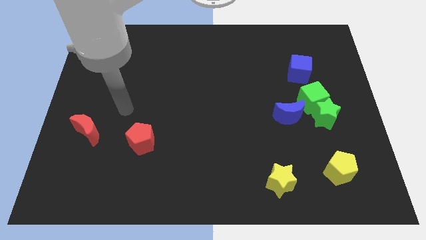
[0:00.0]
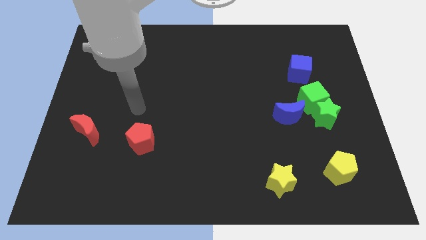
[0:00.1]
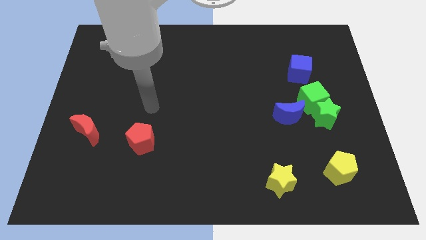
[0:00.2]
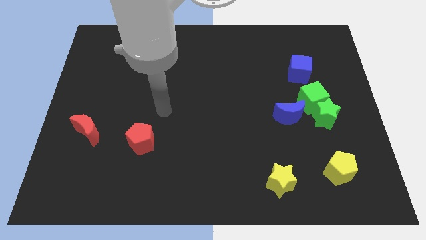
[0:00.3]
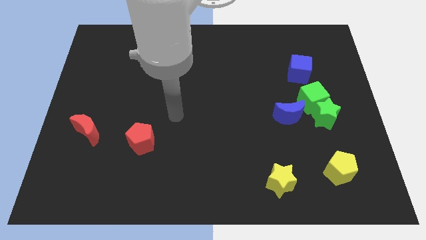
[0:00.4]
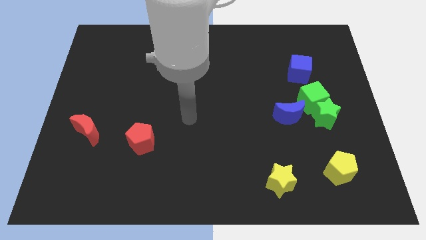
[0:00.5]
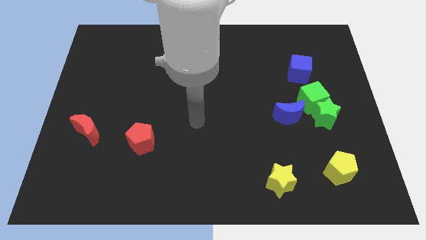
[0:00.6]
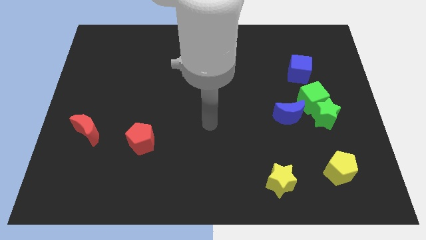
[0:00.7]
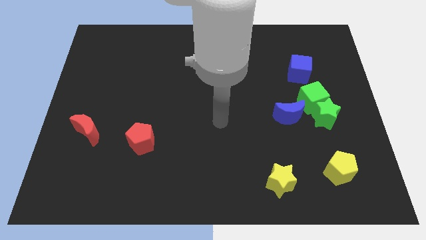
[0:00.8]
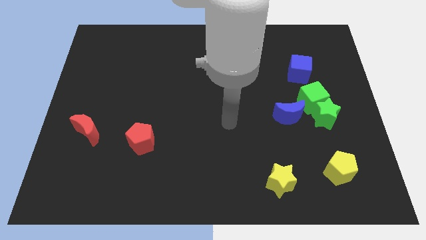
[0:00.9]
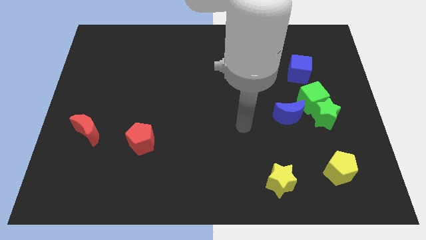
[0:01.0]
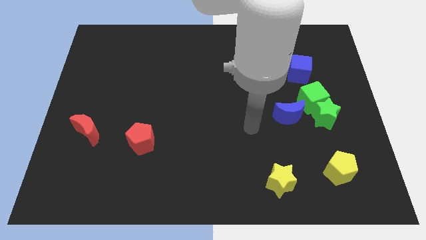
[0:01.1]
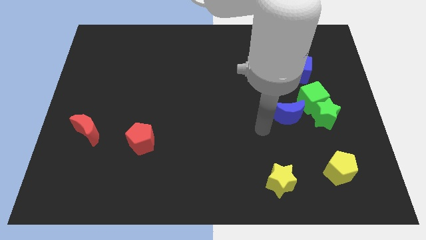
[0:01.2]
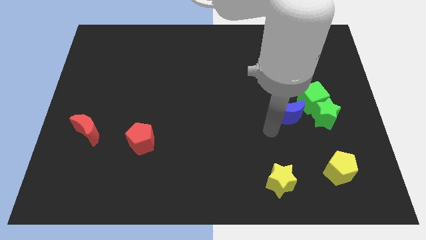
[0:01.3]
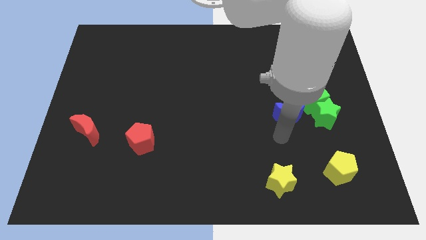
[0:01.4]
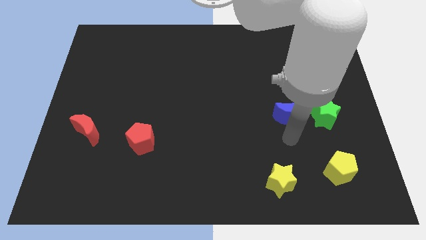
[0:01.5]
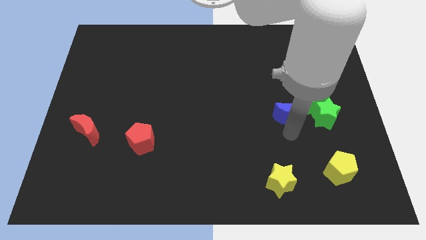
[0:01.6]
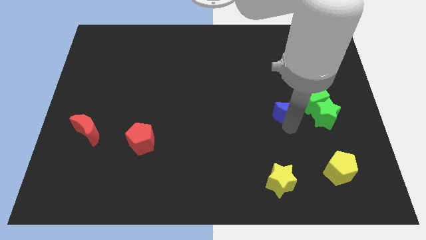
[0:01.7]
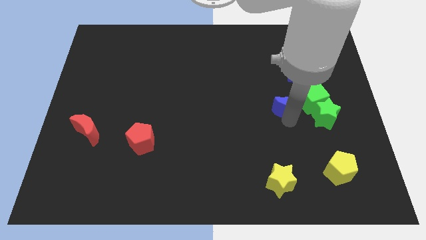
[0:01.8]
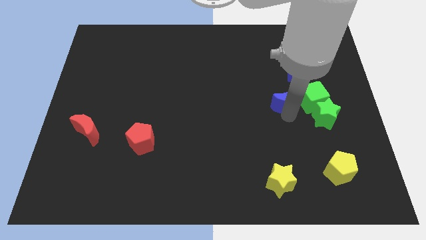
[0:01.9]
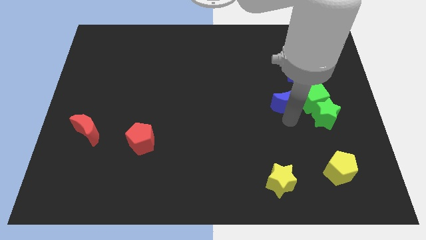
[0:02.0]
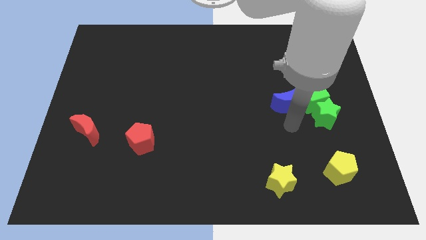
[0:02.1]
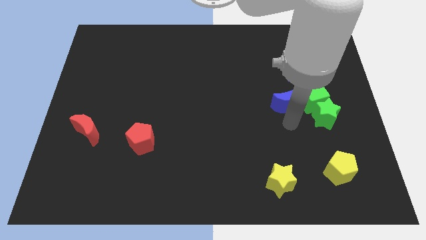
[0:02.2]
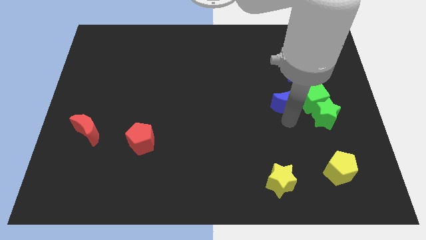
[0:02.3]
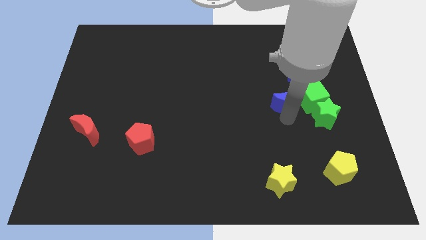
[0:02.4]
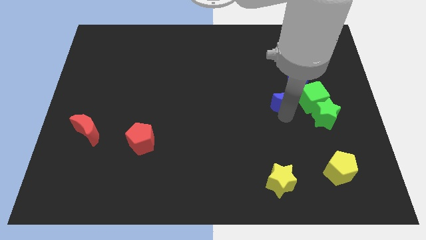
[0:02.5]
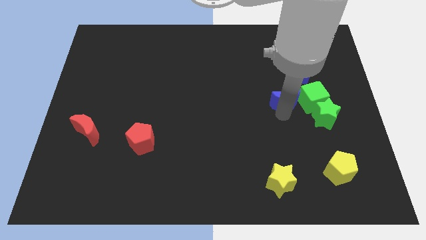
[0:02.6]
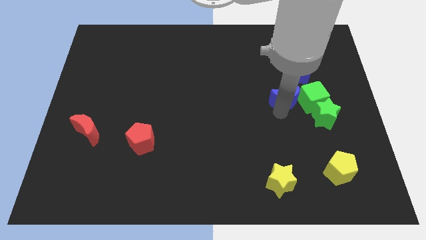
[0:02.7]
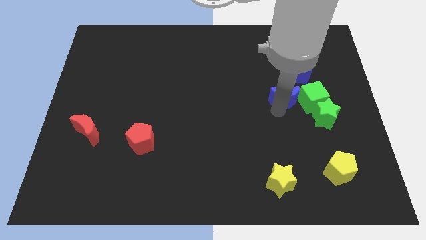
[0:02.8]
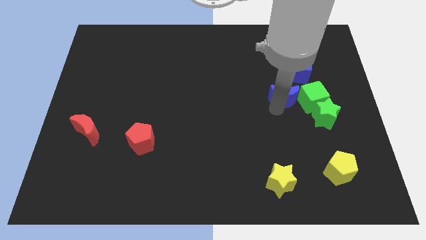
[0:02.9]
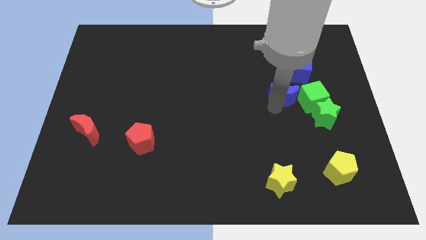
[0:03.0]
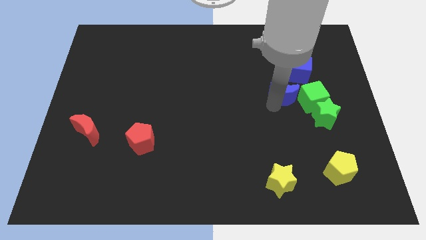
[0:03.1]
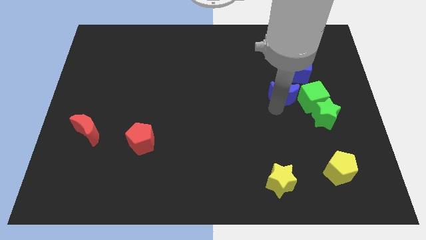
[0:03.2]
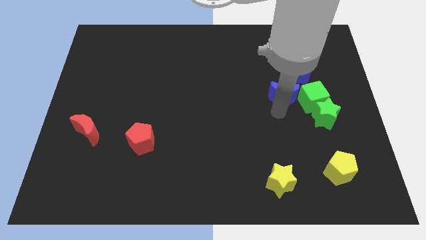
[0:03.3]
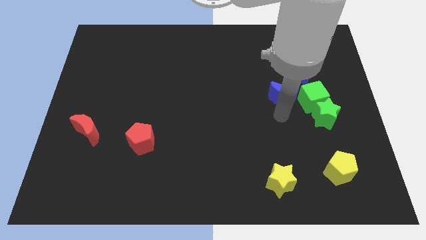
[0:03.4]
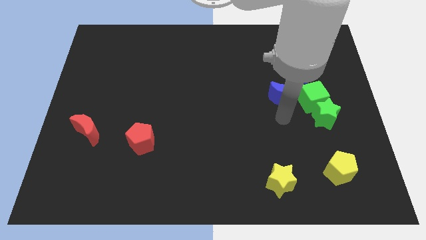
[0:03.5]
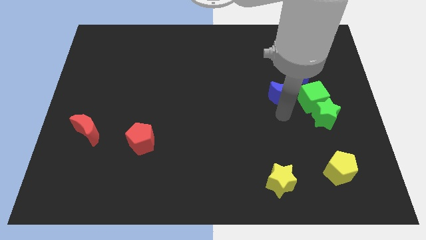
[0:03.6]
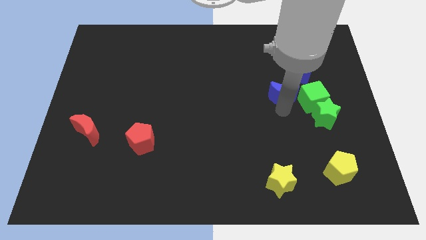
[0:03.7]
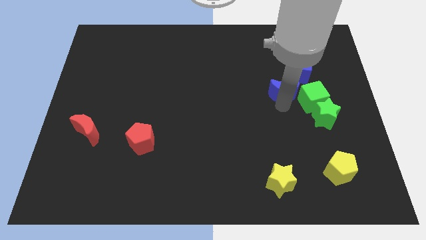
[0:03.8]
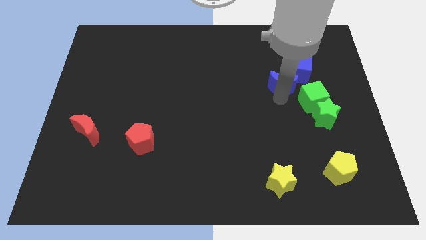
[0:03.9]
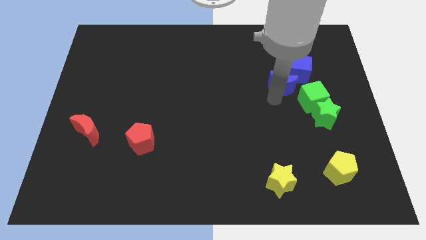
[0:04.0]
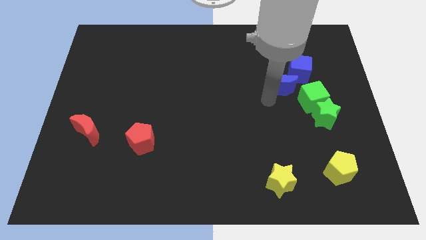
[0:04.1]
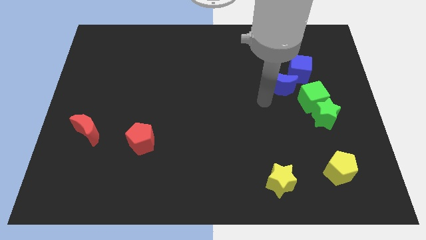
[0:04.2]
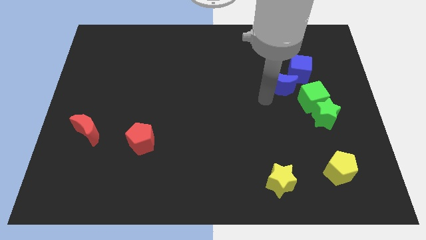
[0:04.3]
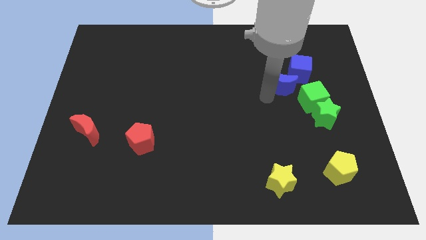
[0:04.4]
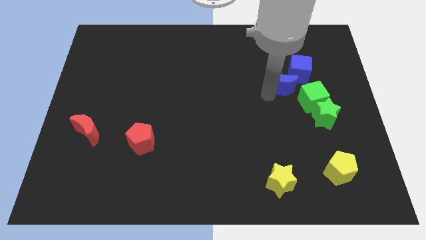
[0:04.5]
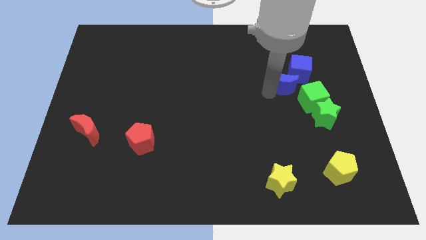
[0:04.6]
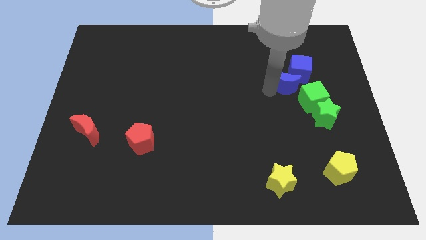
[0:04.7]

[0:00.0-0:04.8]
put the blue moon close to the blue cube

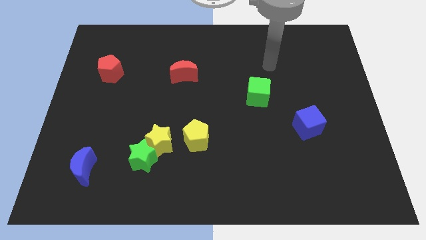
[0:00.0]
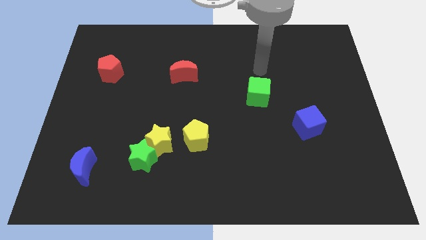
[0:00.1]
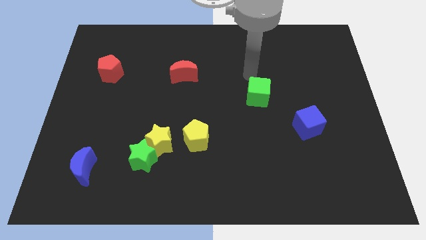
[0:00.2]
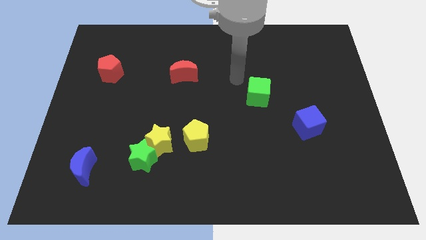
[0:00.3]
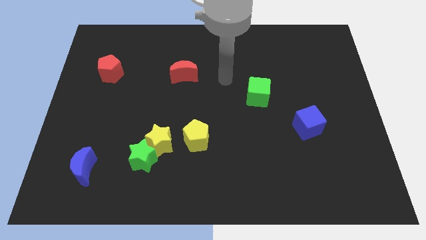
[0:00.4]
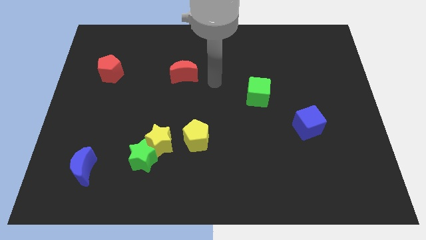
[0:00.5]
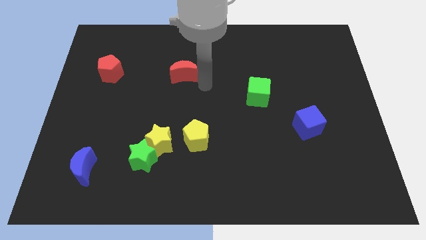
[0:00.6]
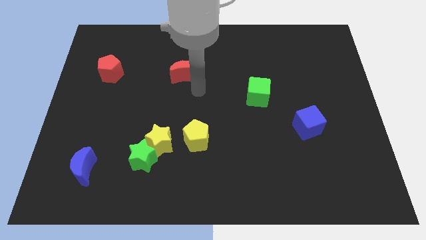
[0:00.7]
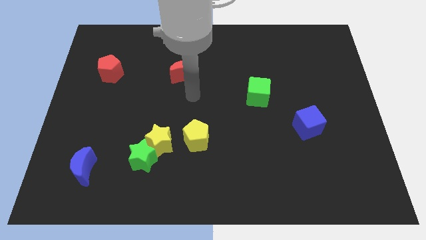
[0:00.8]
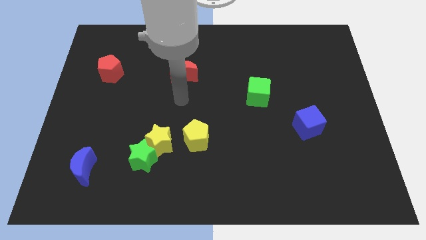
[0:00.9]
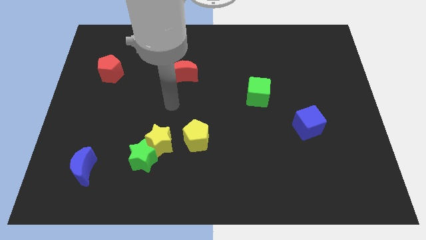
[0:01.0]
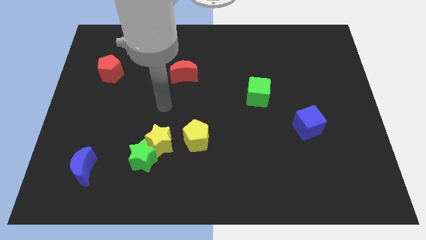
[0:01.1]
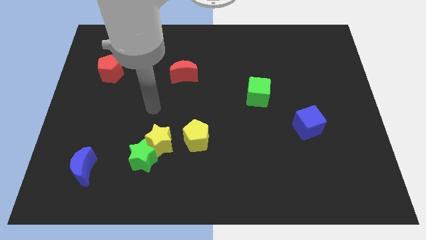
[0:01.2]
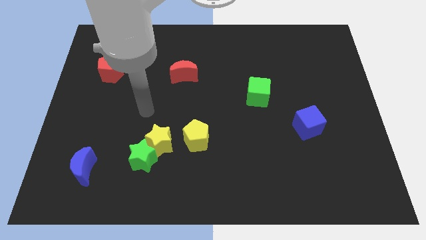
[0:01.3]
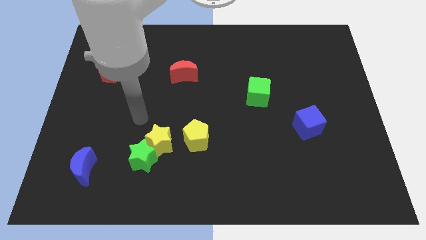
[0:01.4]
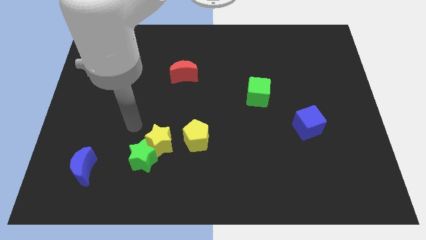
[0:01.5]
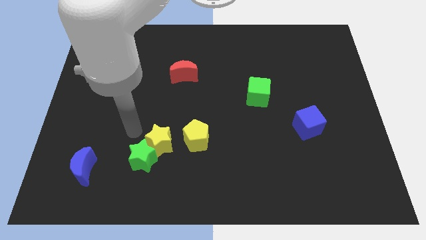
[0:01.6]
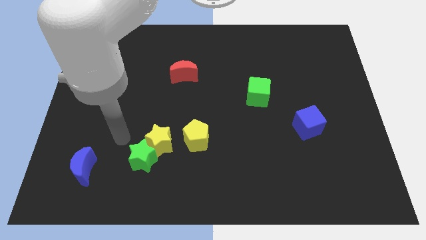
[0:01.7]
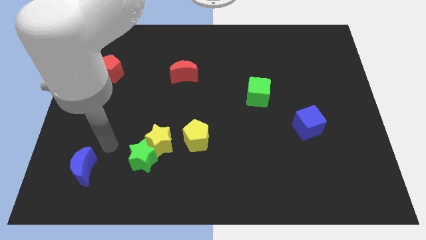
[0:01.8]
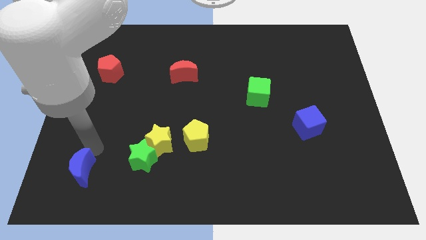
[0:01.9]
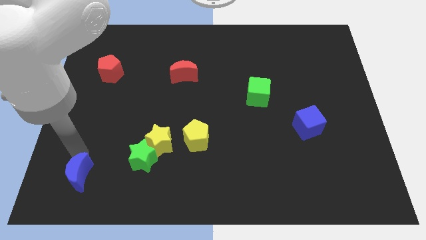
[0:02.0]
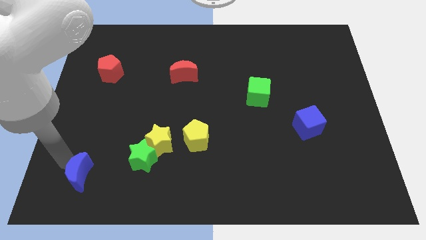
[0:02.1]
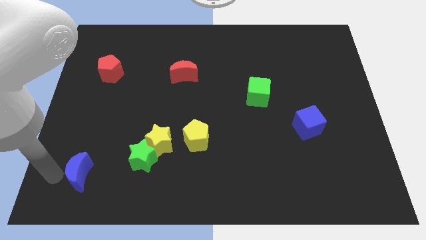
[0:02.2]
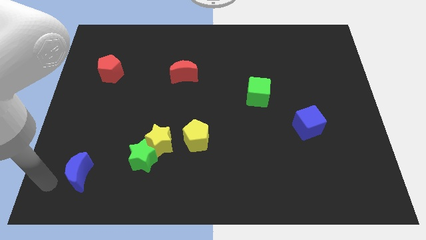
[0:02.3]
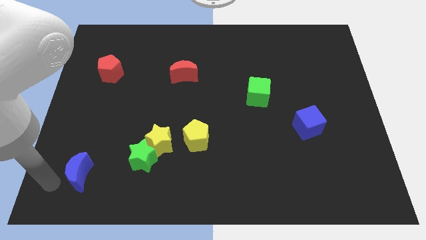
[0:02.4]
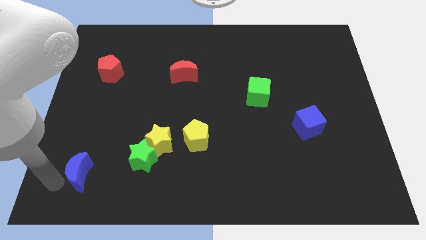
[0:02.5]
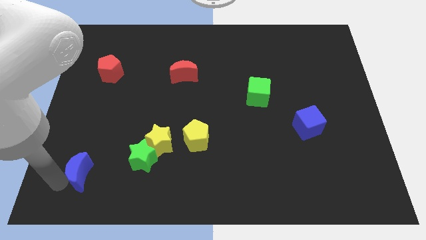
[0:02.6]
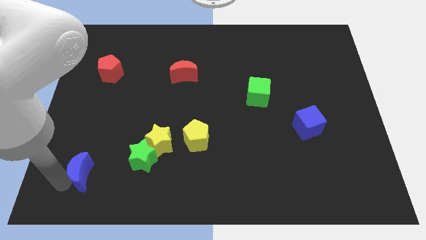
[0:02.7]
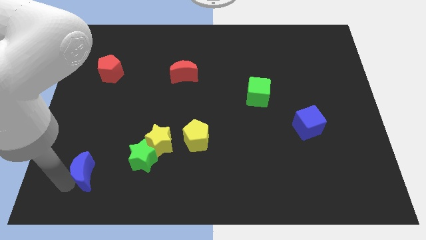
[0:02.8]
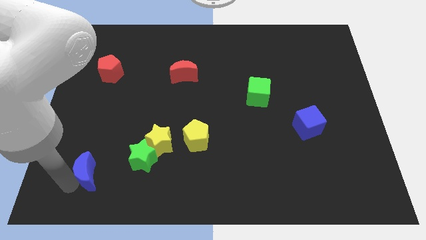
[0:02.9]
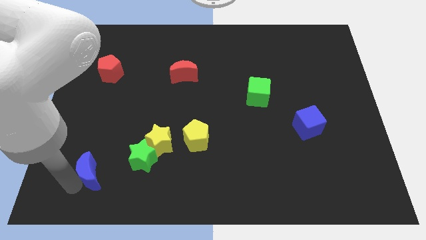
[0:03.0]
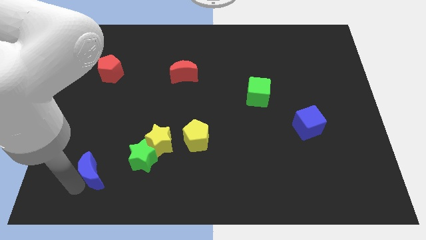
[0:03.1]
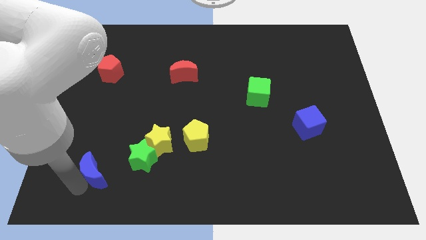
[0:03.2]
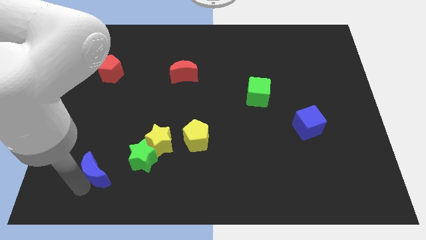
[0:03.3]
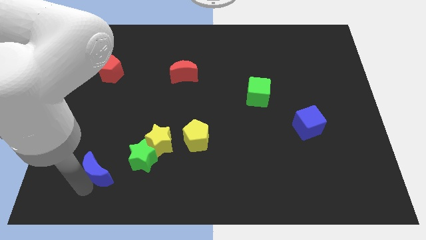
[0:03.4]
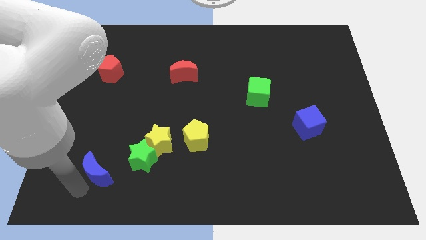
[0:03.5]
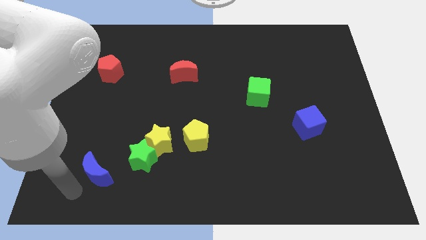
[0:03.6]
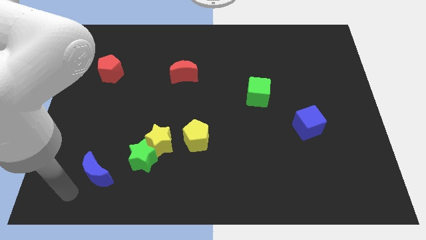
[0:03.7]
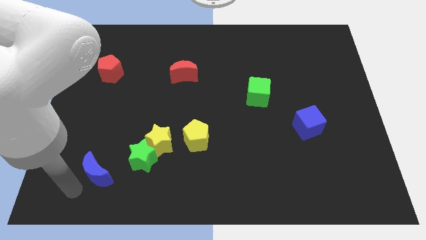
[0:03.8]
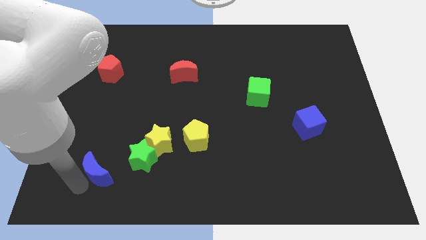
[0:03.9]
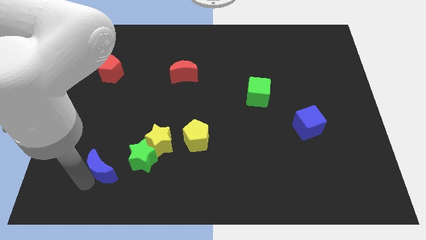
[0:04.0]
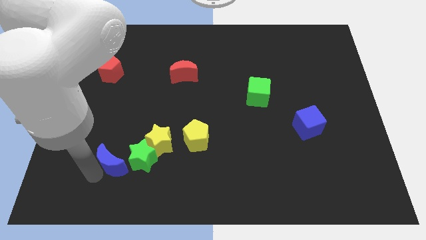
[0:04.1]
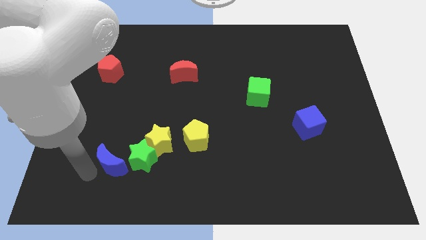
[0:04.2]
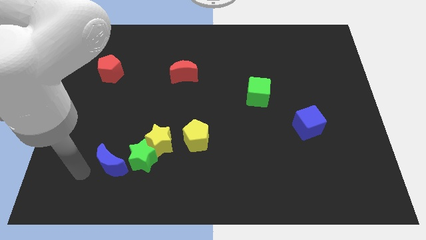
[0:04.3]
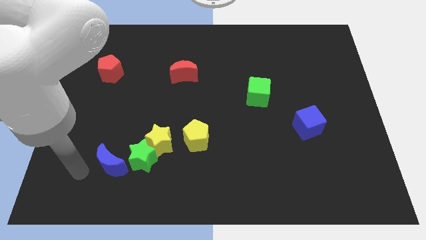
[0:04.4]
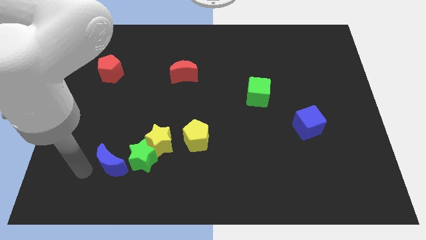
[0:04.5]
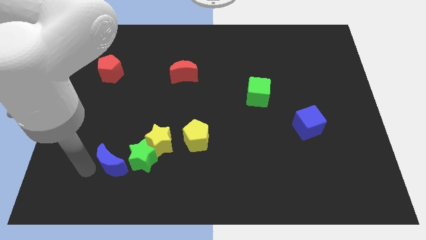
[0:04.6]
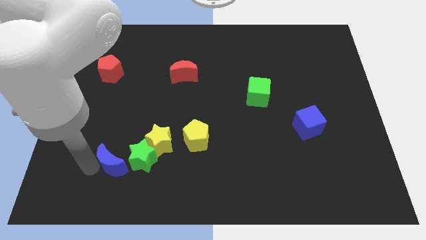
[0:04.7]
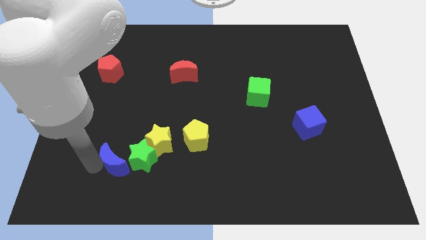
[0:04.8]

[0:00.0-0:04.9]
move the blue moon to the green star
